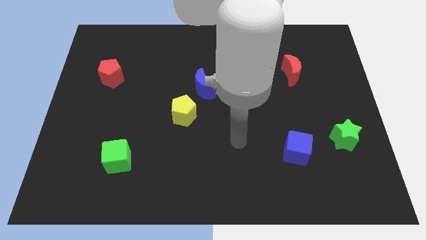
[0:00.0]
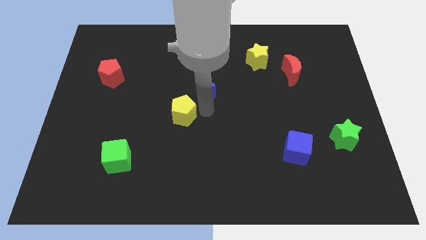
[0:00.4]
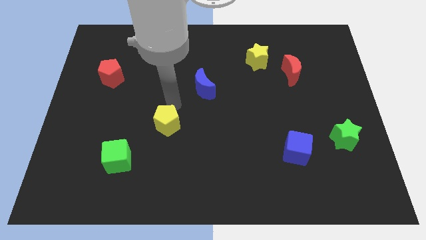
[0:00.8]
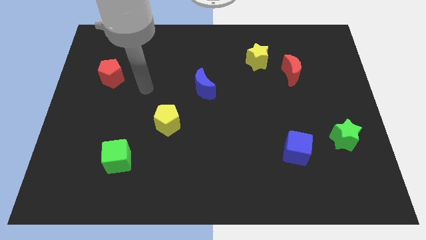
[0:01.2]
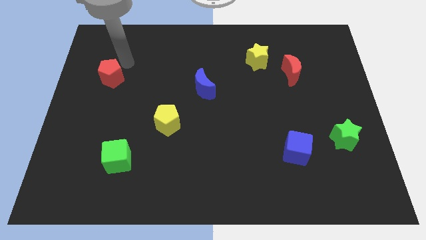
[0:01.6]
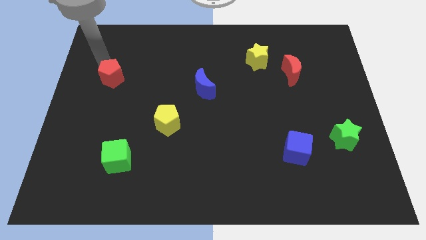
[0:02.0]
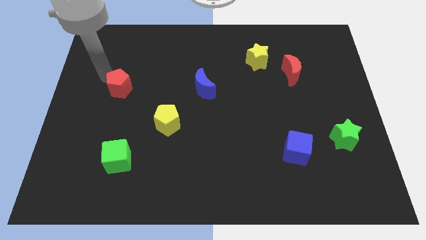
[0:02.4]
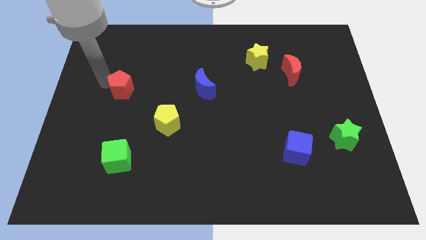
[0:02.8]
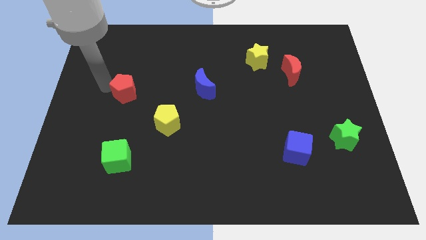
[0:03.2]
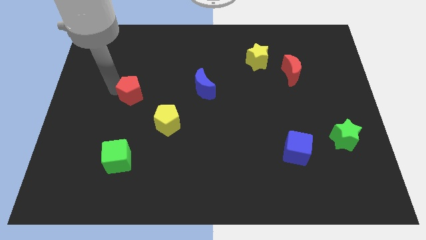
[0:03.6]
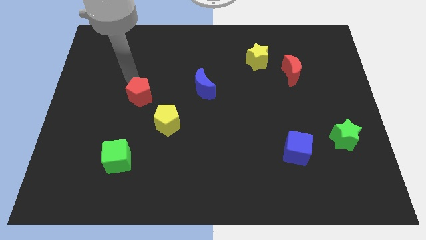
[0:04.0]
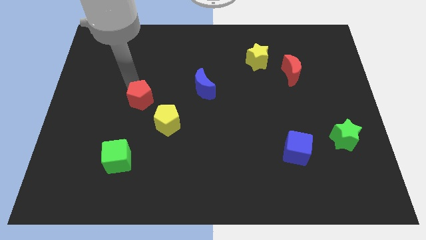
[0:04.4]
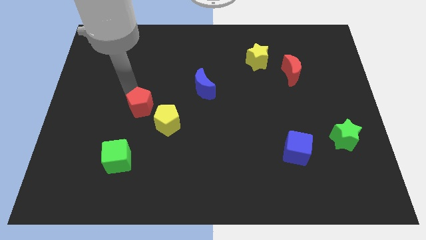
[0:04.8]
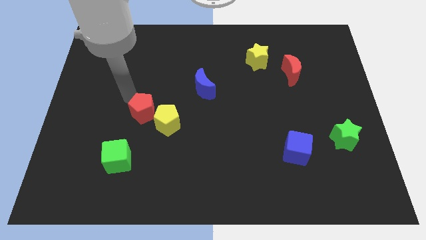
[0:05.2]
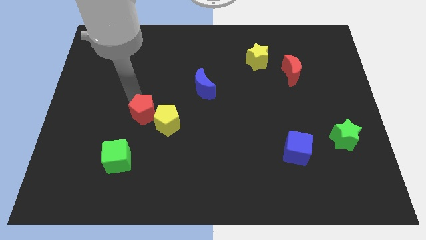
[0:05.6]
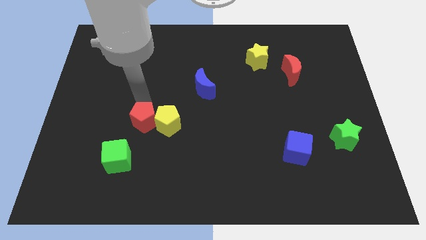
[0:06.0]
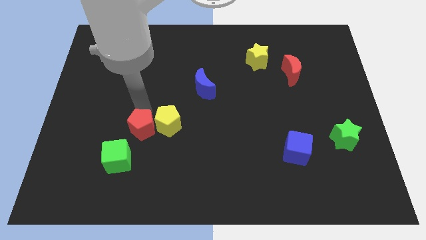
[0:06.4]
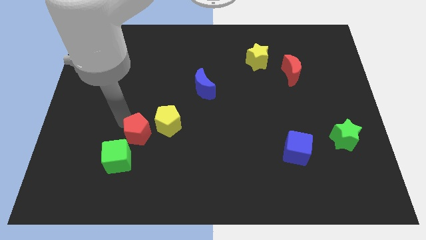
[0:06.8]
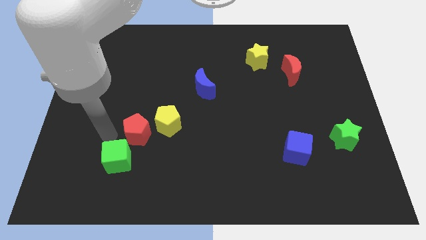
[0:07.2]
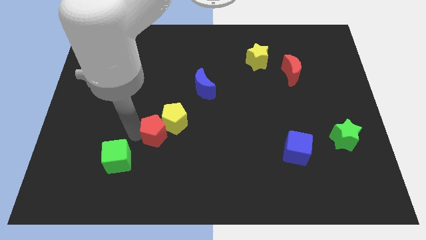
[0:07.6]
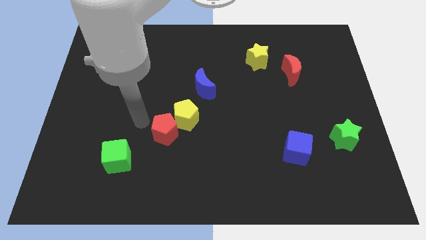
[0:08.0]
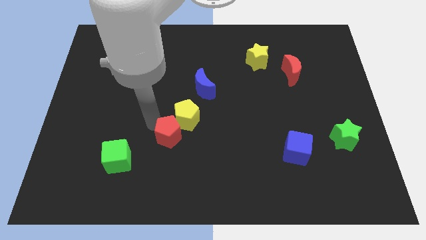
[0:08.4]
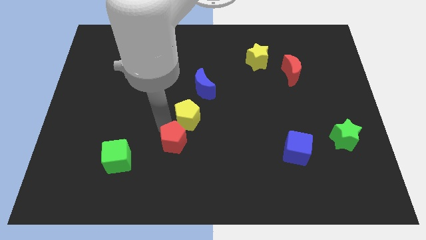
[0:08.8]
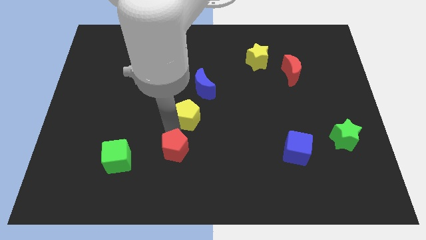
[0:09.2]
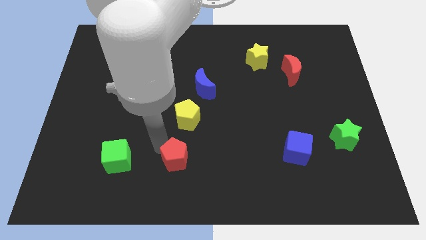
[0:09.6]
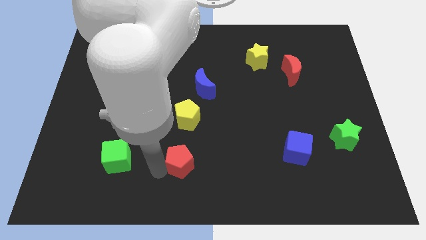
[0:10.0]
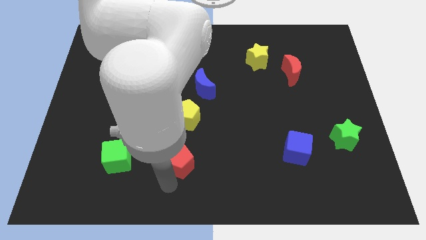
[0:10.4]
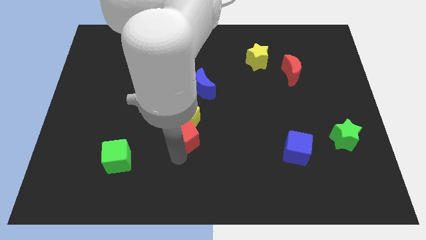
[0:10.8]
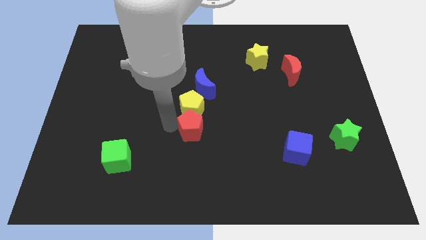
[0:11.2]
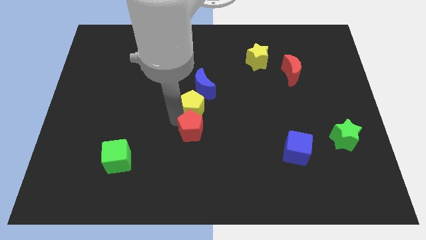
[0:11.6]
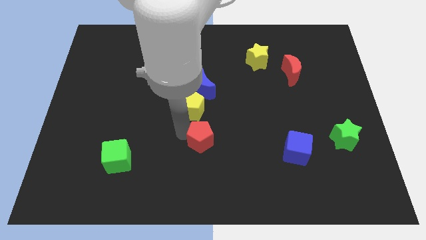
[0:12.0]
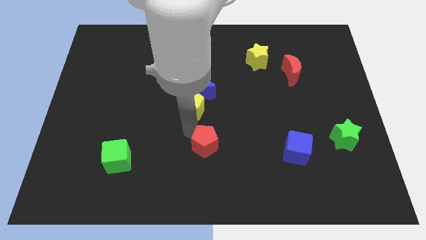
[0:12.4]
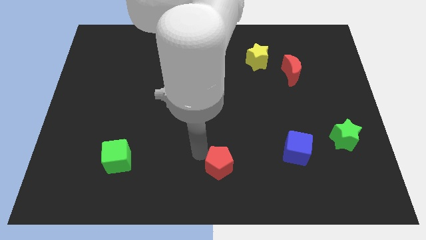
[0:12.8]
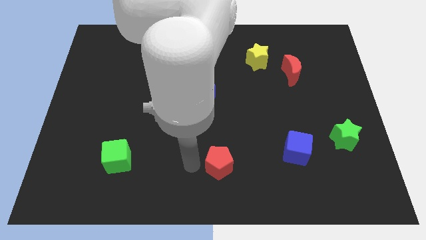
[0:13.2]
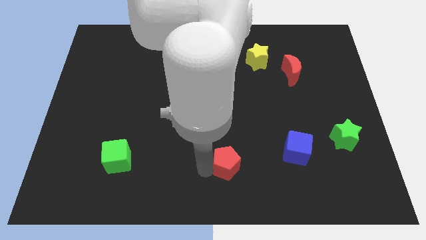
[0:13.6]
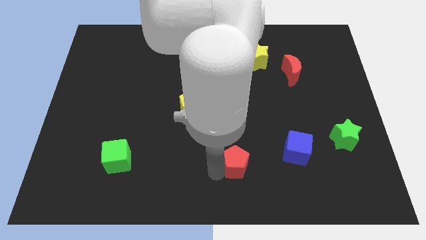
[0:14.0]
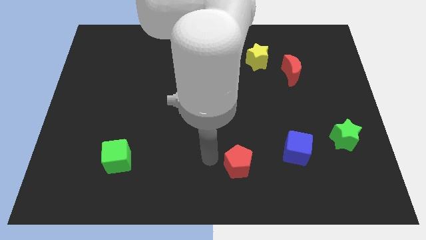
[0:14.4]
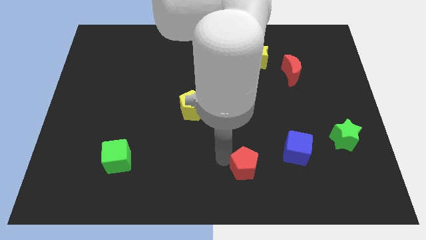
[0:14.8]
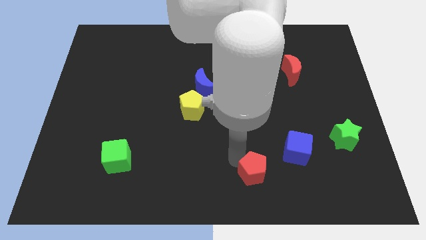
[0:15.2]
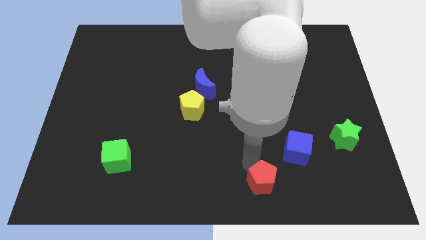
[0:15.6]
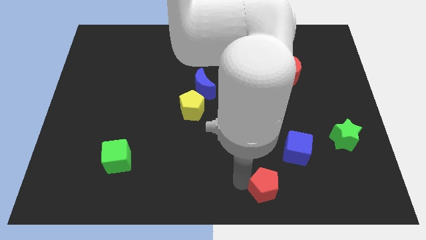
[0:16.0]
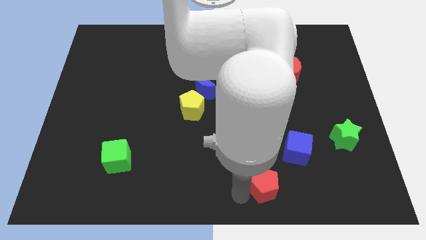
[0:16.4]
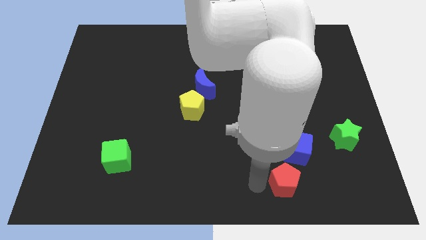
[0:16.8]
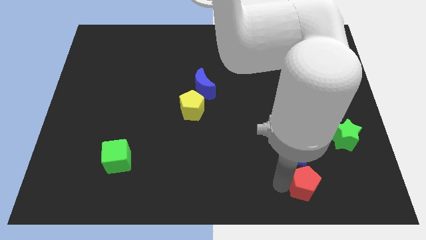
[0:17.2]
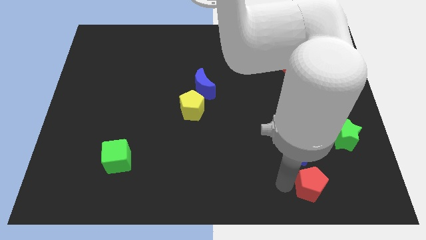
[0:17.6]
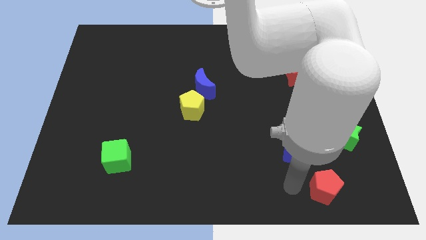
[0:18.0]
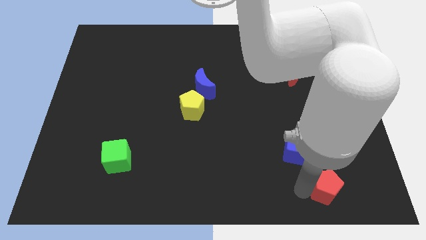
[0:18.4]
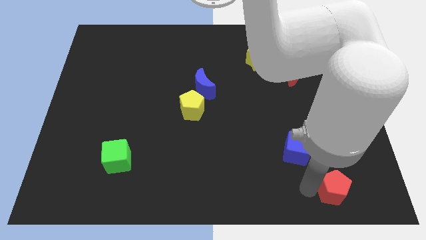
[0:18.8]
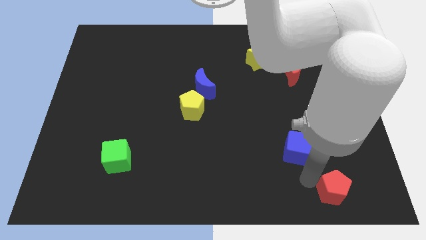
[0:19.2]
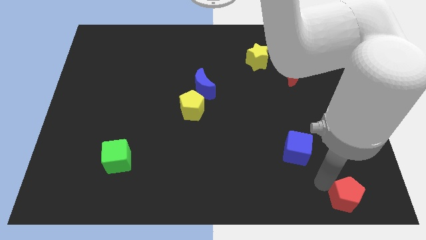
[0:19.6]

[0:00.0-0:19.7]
push the red pentagon to the bottom right corner

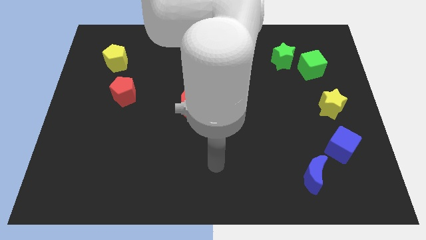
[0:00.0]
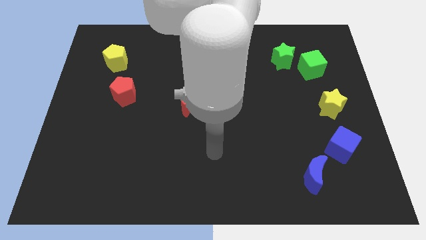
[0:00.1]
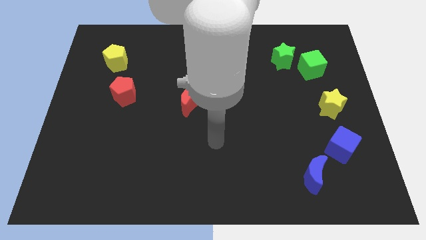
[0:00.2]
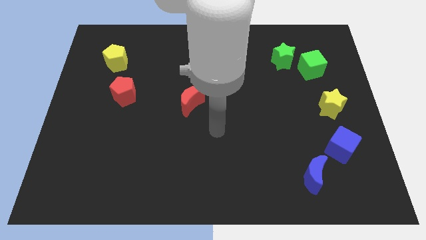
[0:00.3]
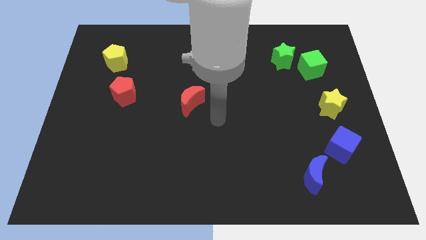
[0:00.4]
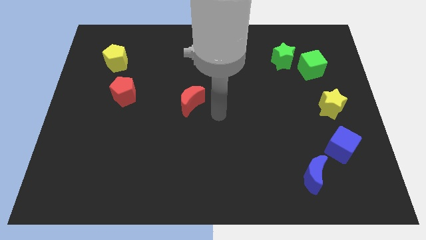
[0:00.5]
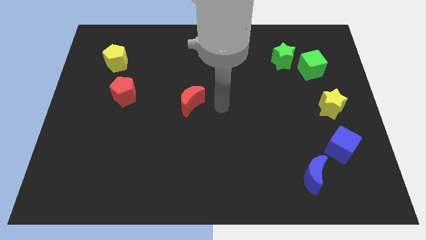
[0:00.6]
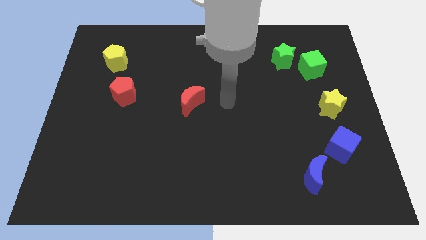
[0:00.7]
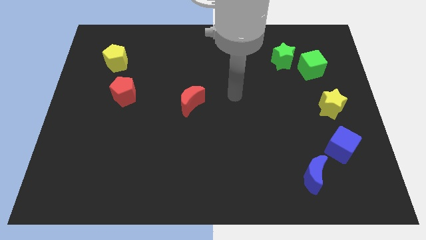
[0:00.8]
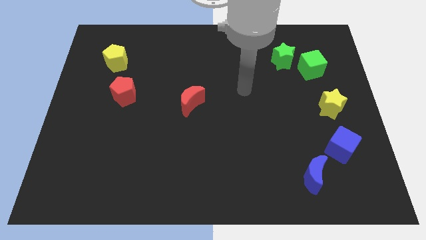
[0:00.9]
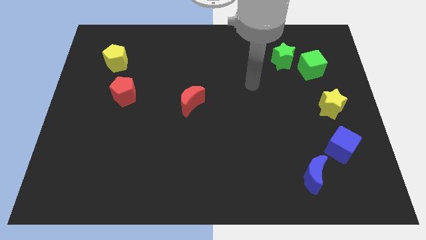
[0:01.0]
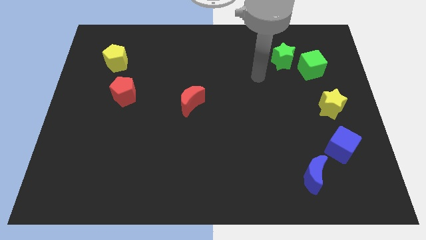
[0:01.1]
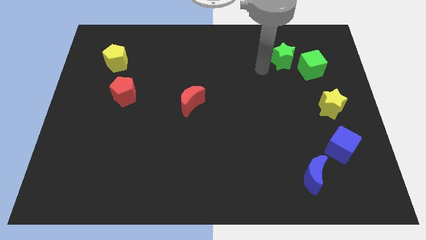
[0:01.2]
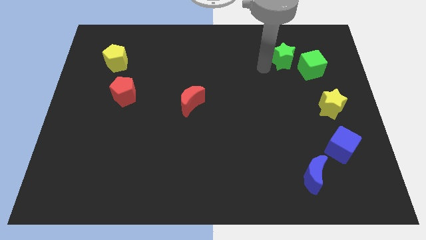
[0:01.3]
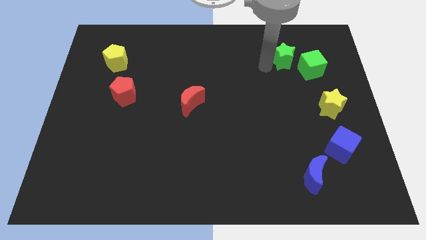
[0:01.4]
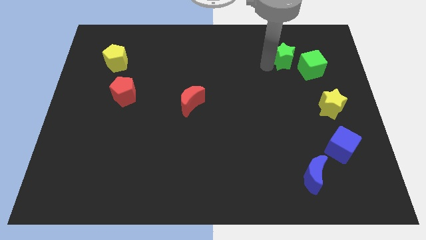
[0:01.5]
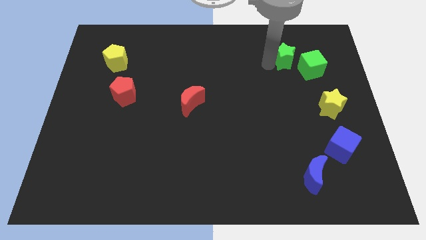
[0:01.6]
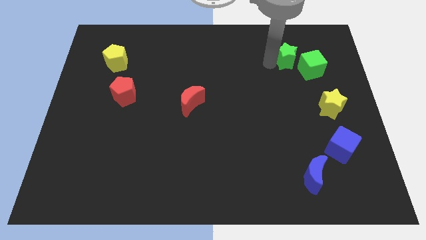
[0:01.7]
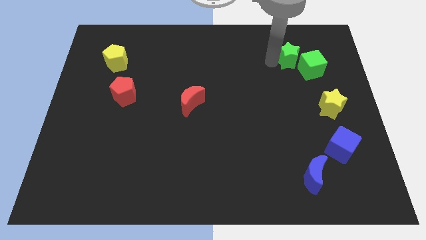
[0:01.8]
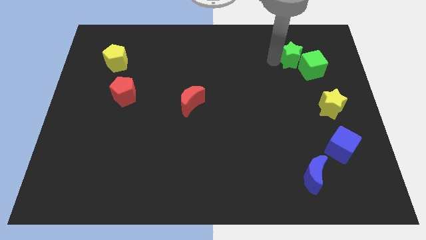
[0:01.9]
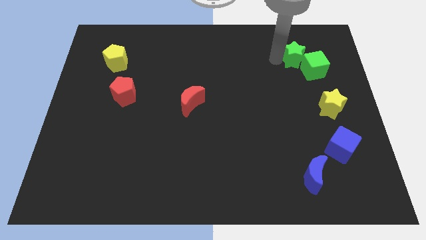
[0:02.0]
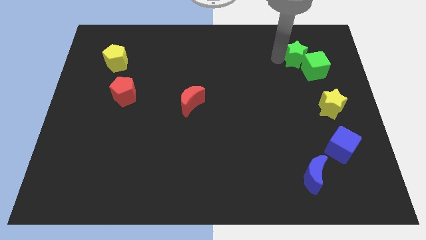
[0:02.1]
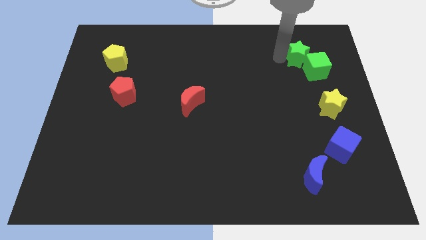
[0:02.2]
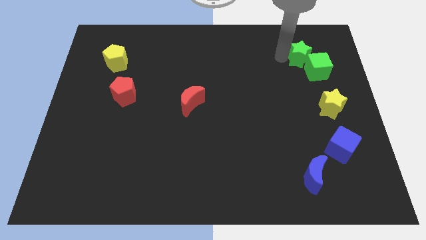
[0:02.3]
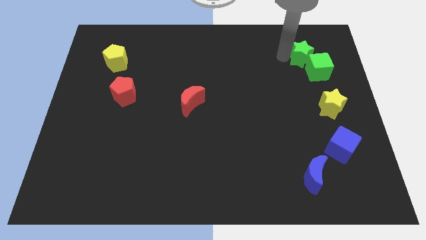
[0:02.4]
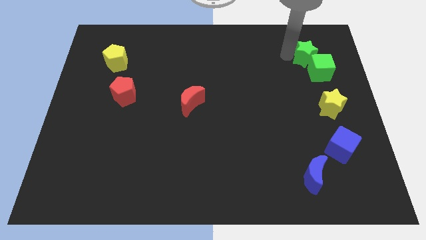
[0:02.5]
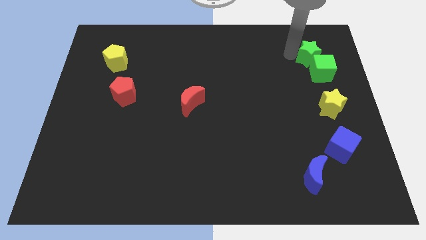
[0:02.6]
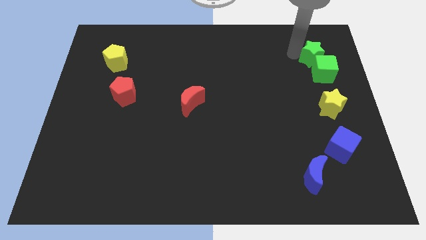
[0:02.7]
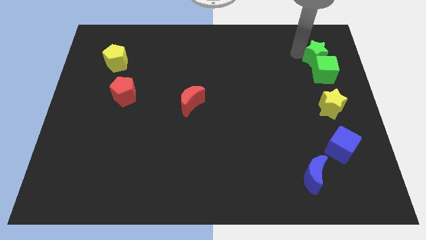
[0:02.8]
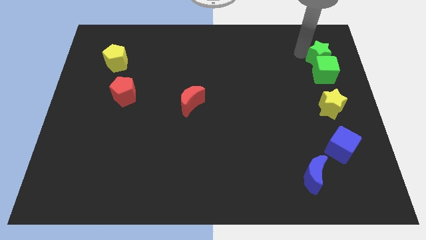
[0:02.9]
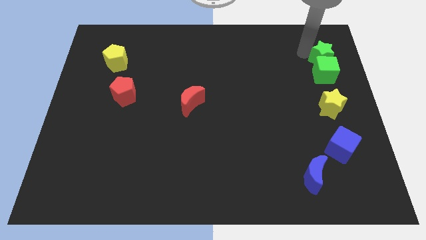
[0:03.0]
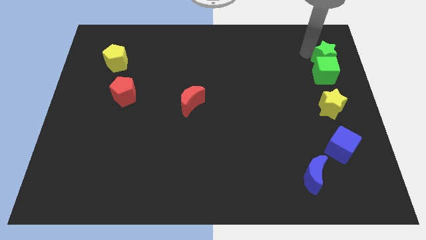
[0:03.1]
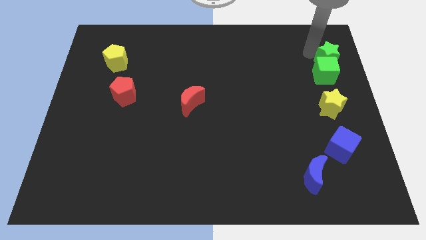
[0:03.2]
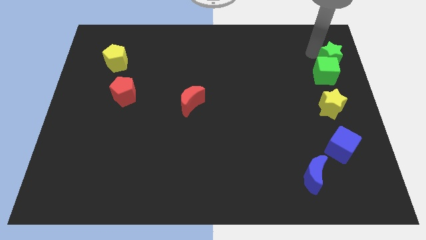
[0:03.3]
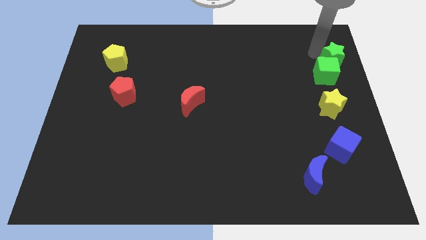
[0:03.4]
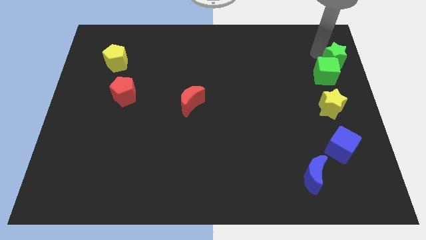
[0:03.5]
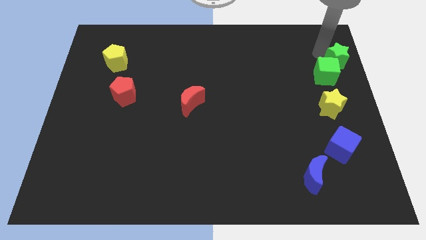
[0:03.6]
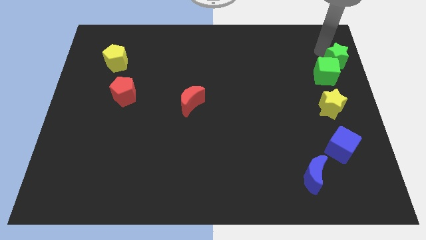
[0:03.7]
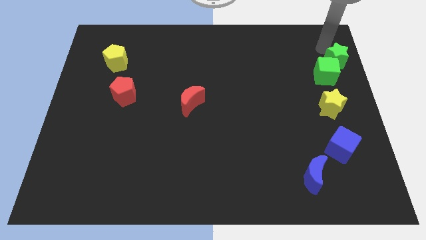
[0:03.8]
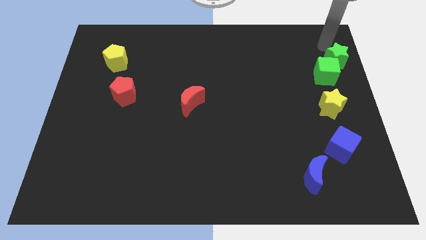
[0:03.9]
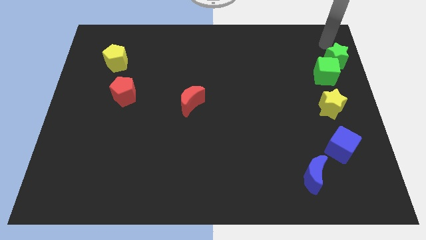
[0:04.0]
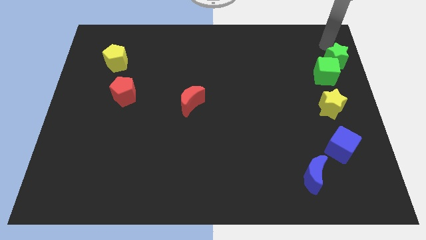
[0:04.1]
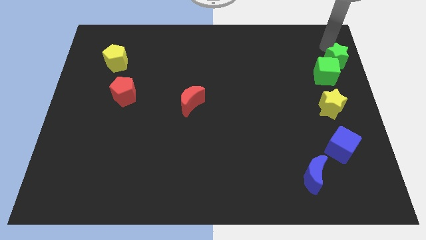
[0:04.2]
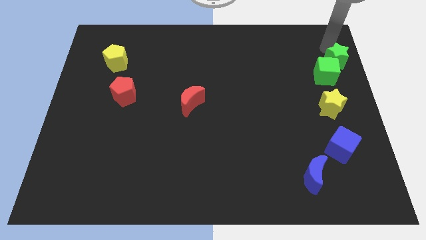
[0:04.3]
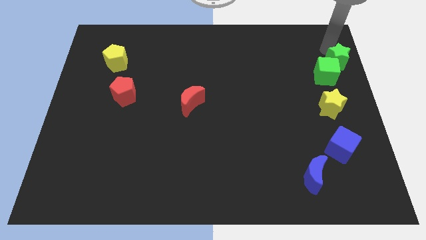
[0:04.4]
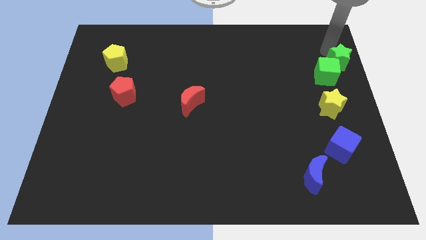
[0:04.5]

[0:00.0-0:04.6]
put the green star to the right side of the board
